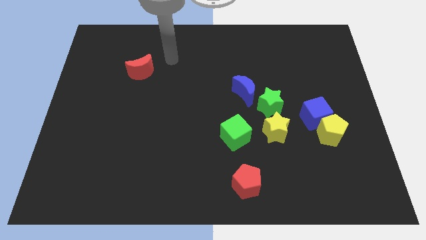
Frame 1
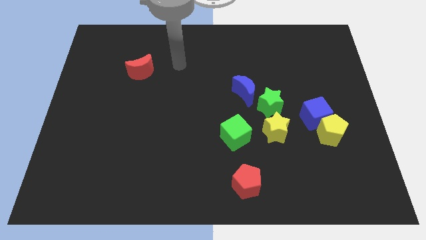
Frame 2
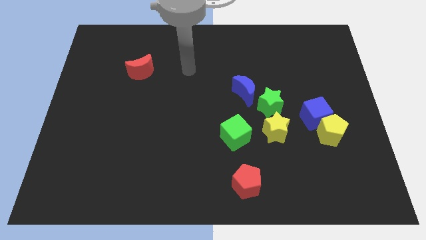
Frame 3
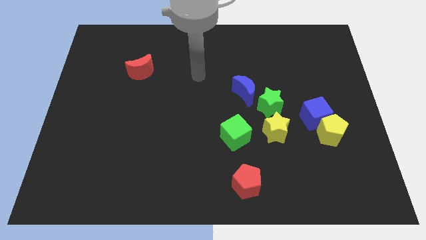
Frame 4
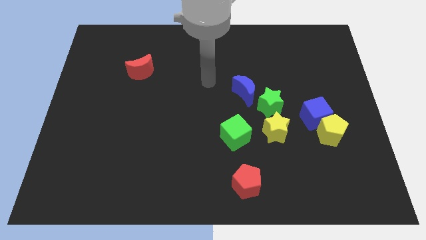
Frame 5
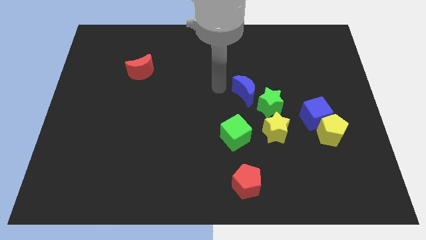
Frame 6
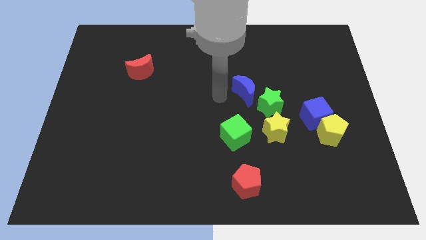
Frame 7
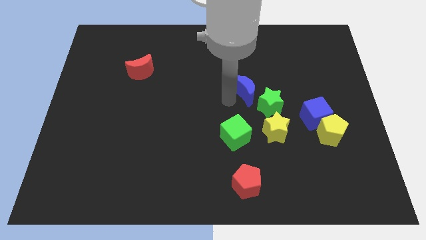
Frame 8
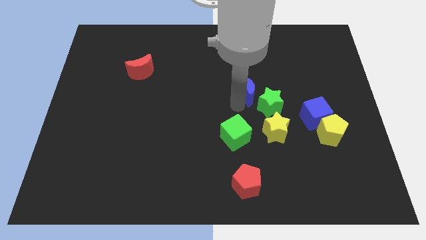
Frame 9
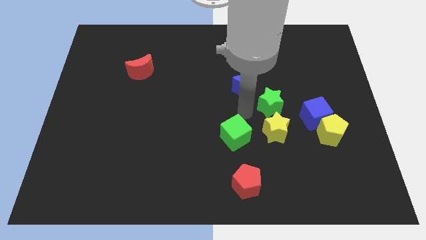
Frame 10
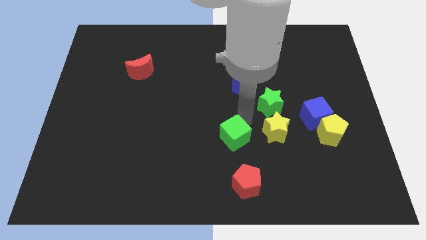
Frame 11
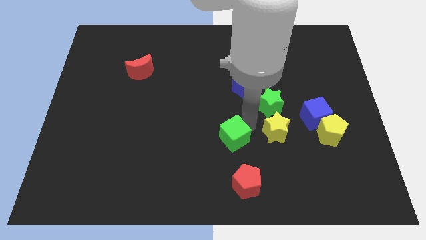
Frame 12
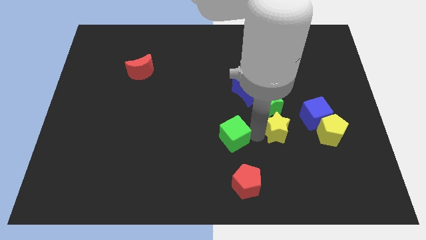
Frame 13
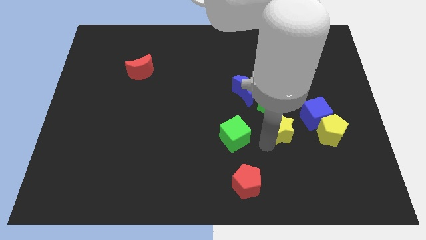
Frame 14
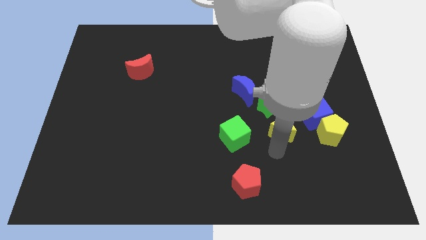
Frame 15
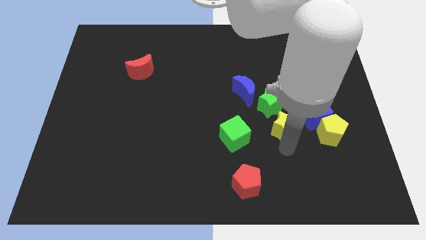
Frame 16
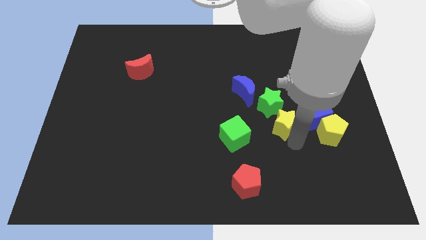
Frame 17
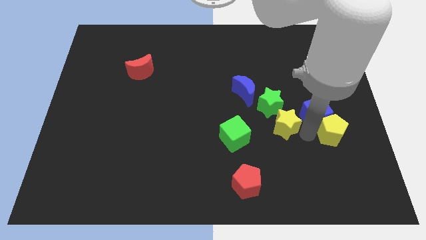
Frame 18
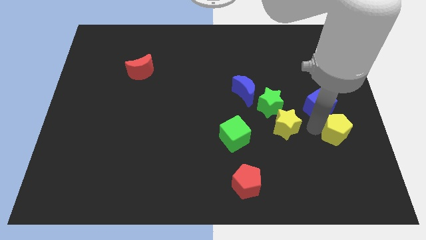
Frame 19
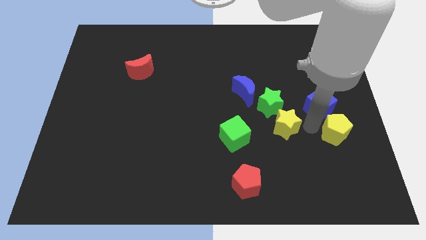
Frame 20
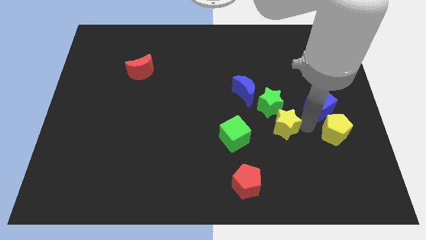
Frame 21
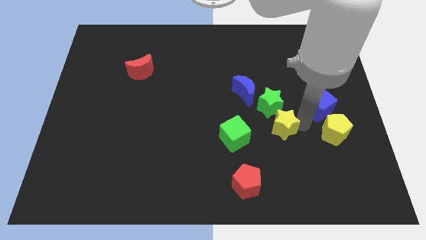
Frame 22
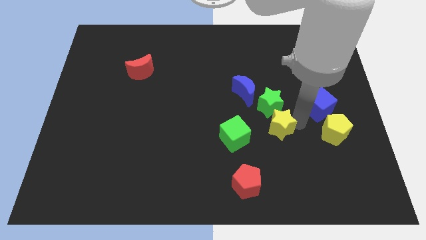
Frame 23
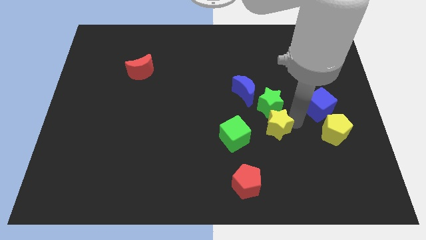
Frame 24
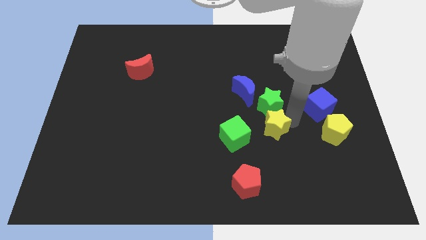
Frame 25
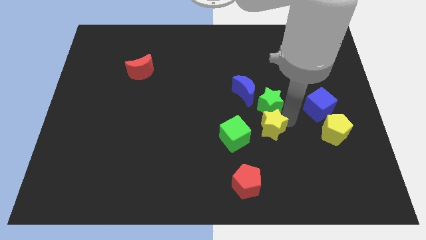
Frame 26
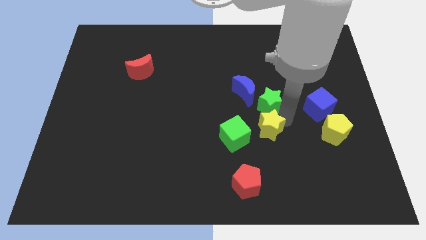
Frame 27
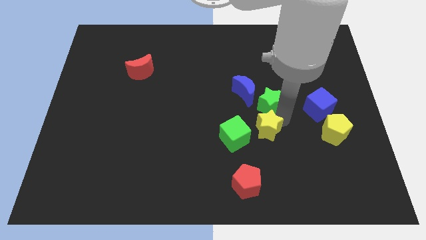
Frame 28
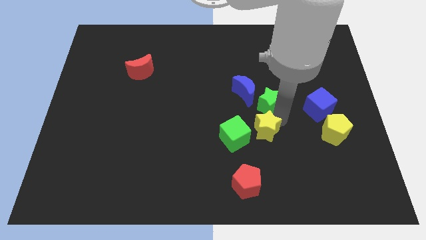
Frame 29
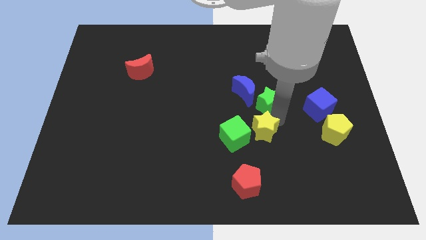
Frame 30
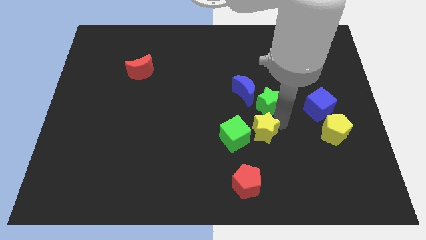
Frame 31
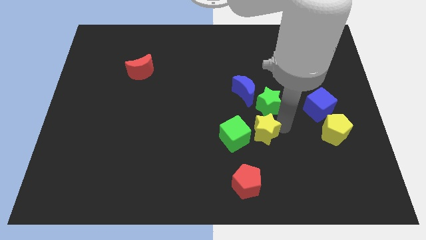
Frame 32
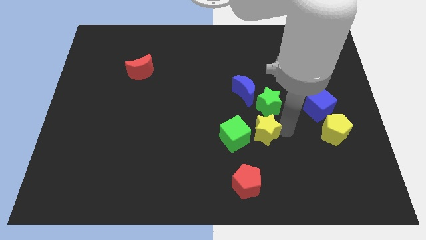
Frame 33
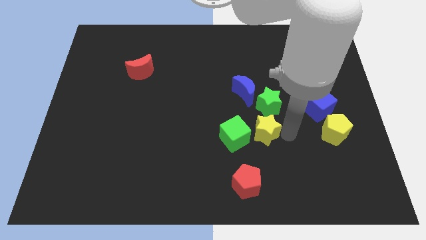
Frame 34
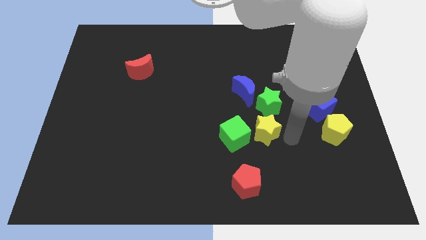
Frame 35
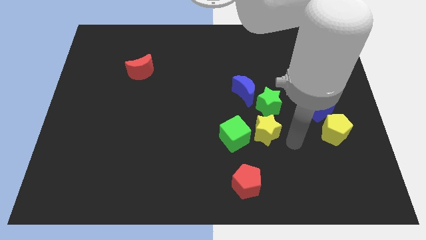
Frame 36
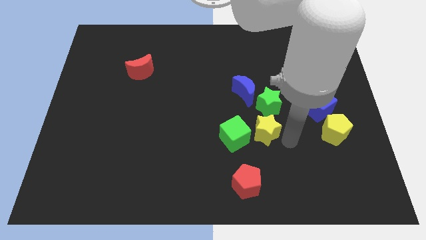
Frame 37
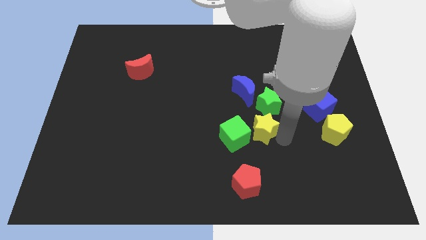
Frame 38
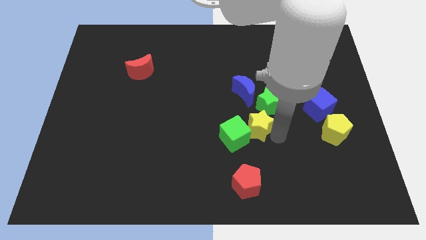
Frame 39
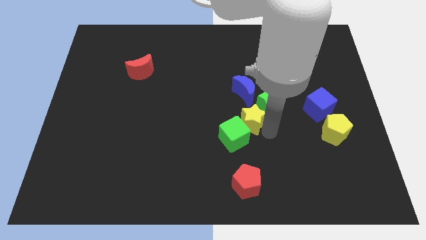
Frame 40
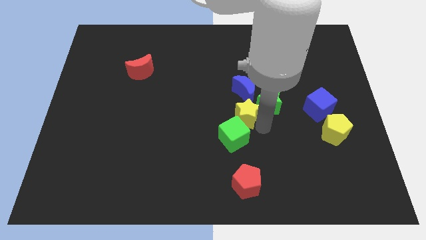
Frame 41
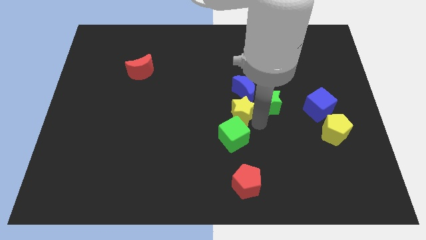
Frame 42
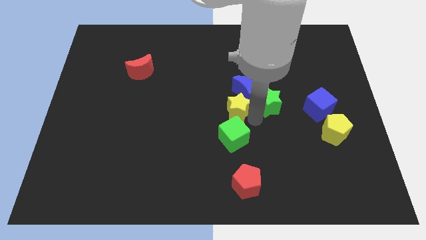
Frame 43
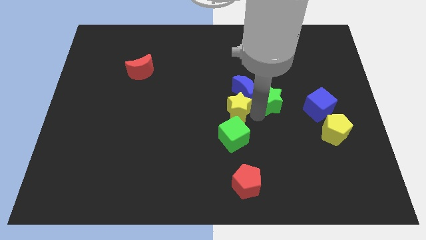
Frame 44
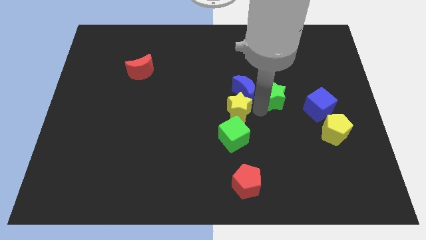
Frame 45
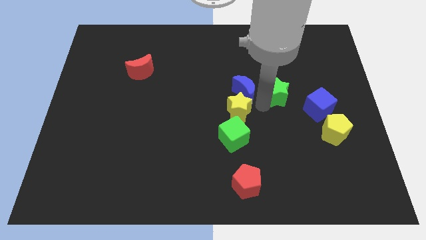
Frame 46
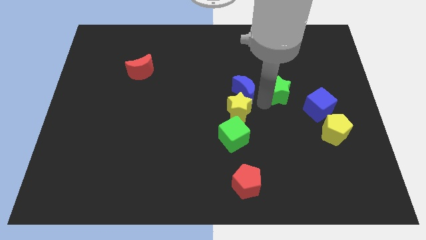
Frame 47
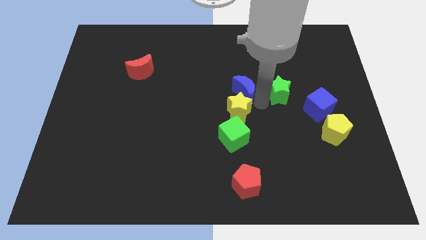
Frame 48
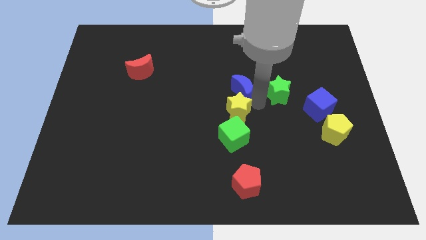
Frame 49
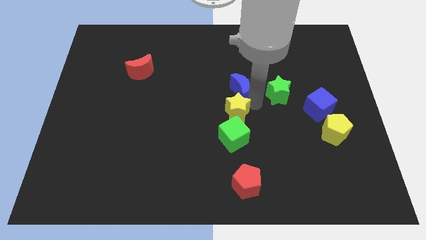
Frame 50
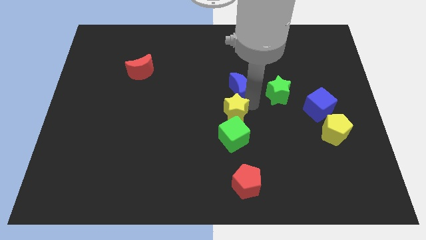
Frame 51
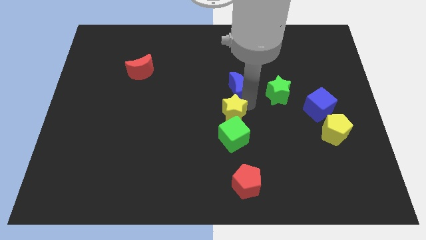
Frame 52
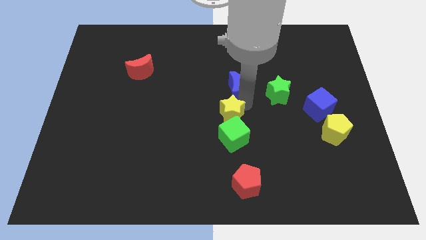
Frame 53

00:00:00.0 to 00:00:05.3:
push the yellow star to the top left of the green cube
